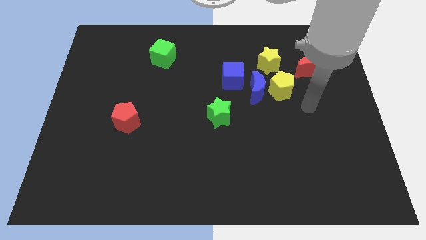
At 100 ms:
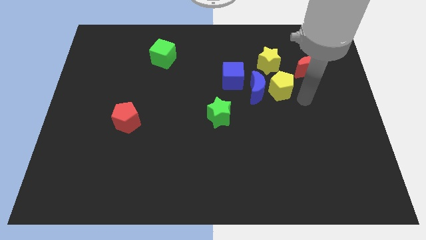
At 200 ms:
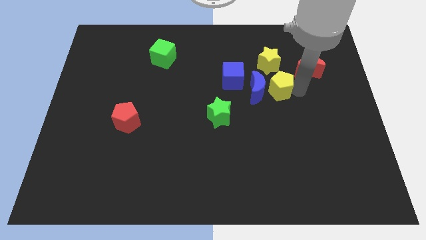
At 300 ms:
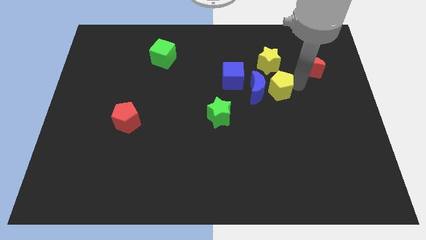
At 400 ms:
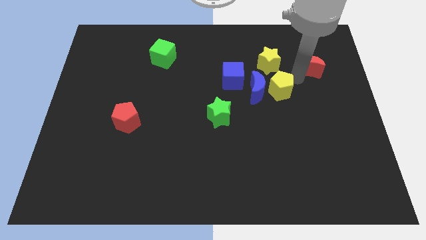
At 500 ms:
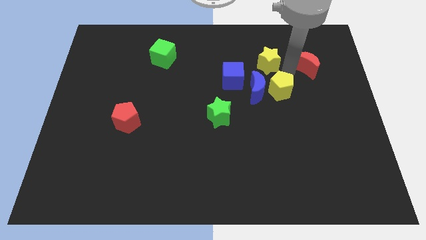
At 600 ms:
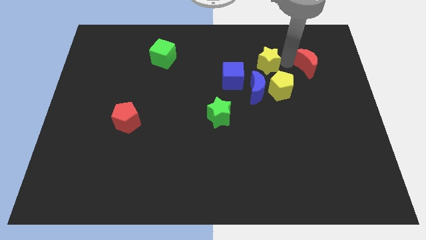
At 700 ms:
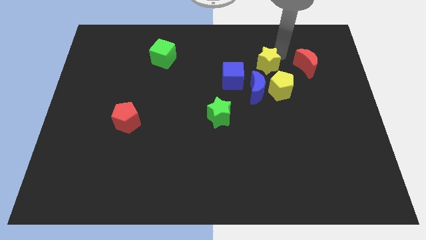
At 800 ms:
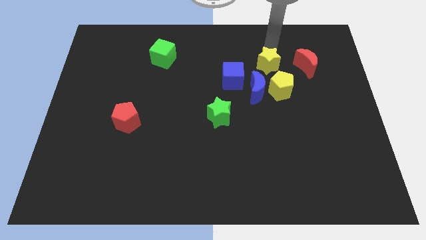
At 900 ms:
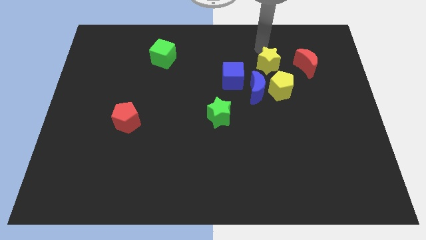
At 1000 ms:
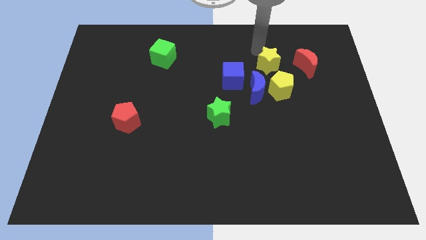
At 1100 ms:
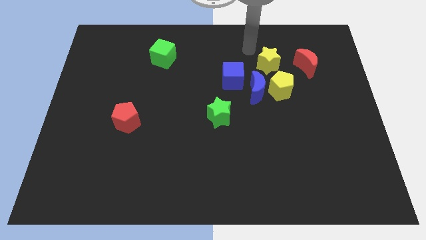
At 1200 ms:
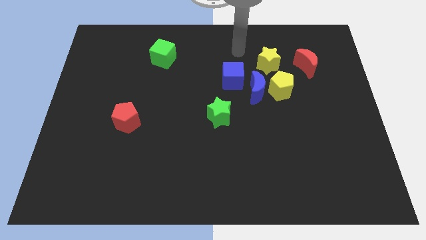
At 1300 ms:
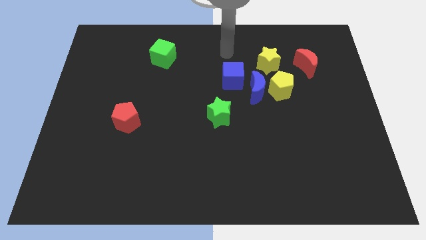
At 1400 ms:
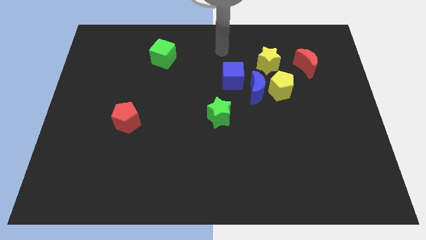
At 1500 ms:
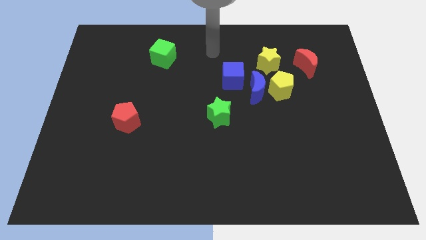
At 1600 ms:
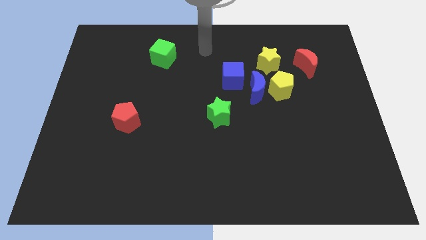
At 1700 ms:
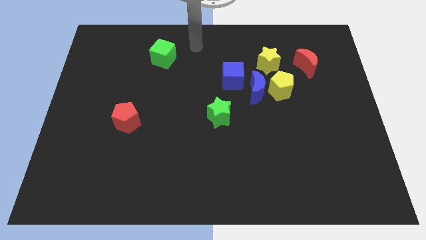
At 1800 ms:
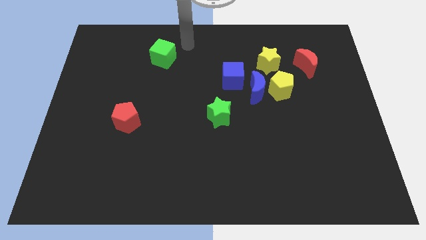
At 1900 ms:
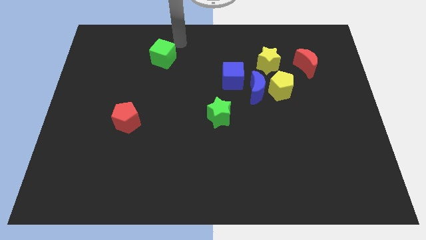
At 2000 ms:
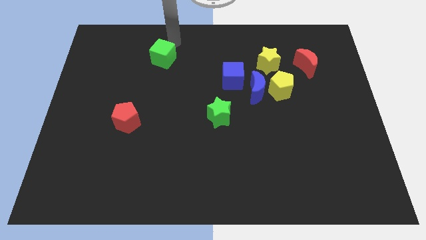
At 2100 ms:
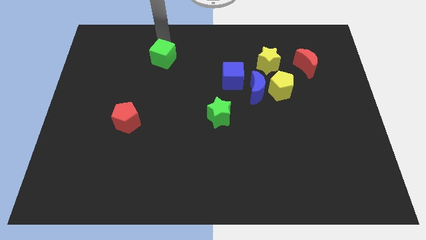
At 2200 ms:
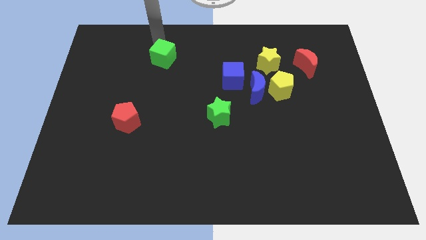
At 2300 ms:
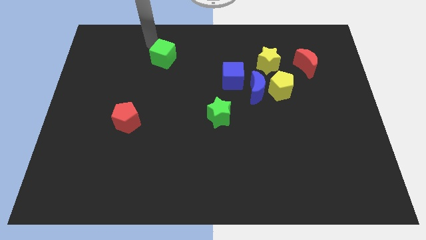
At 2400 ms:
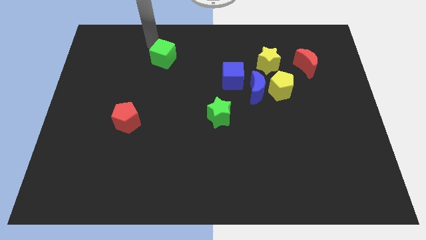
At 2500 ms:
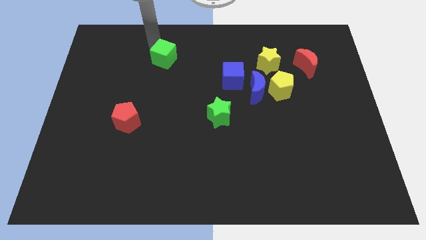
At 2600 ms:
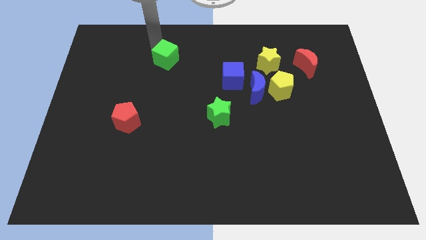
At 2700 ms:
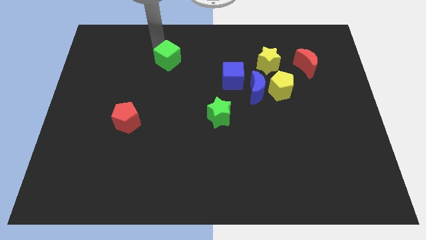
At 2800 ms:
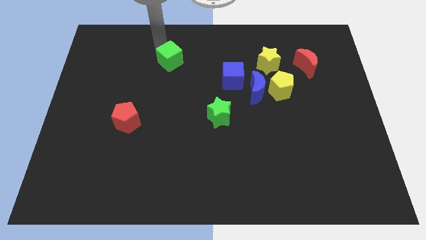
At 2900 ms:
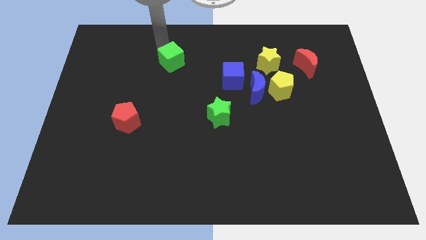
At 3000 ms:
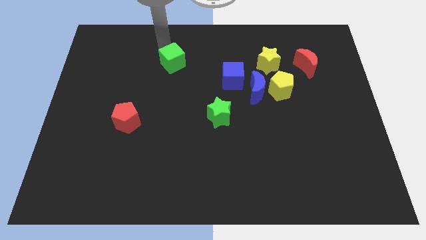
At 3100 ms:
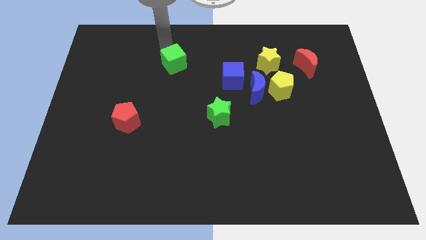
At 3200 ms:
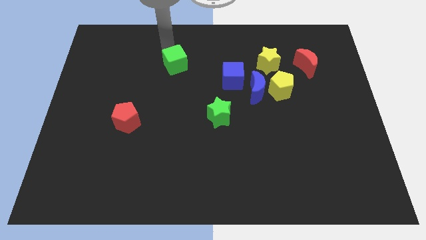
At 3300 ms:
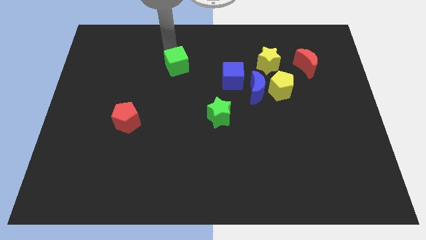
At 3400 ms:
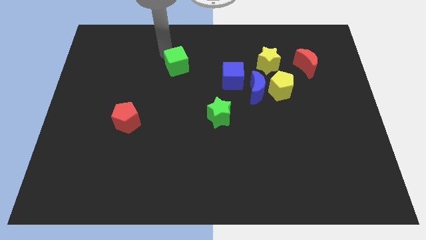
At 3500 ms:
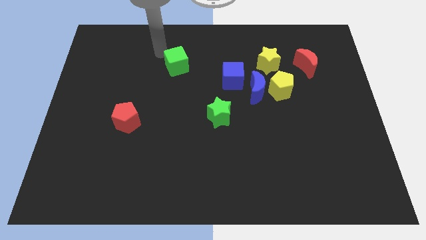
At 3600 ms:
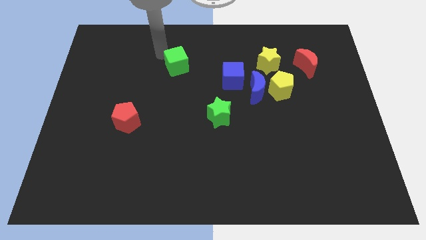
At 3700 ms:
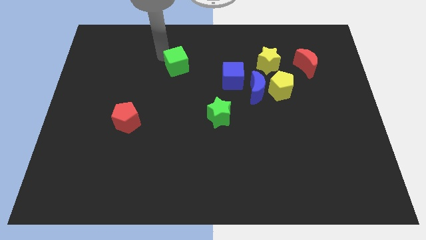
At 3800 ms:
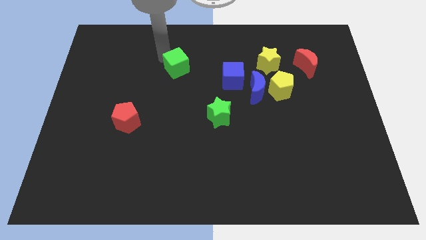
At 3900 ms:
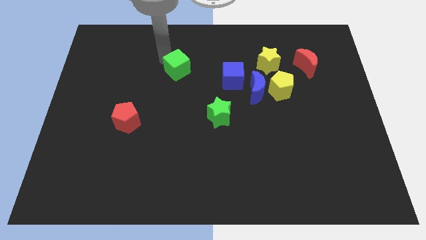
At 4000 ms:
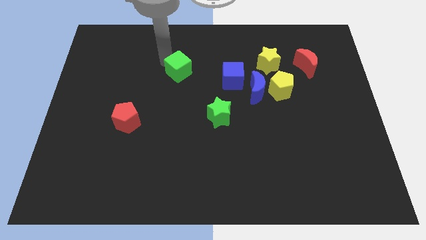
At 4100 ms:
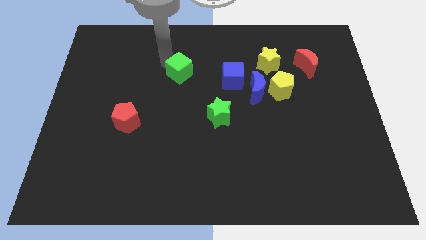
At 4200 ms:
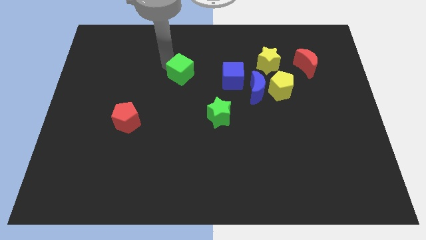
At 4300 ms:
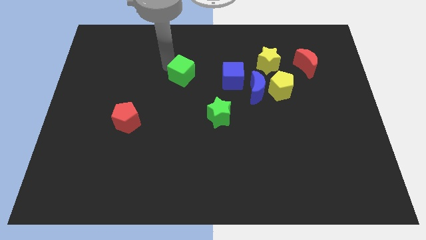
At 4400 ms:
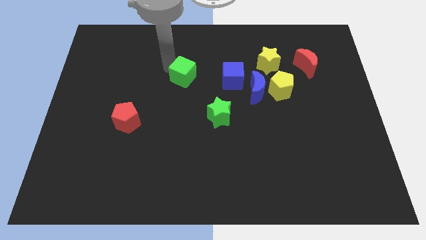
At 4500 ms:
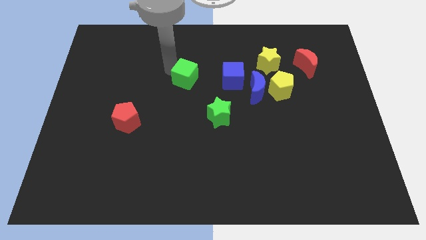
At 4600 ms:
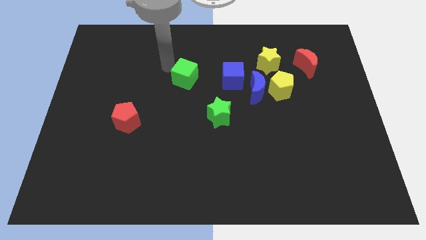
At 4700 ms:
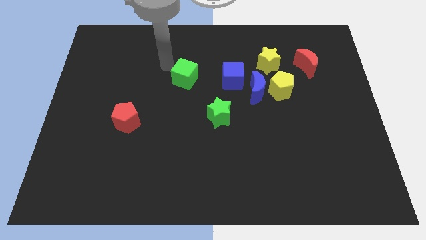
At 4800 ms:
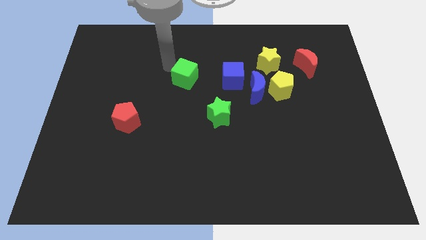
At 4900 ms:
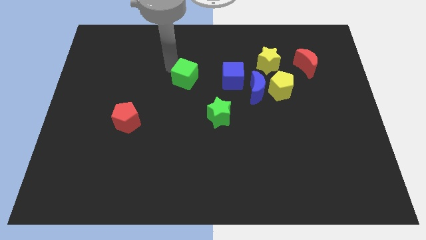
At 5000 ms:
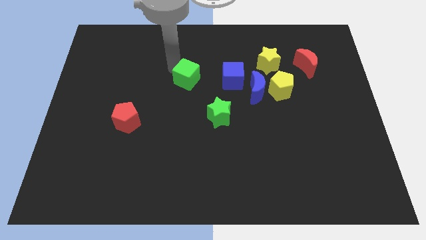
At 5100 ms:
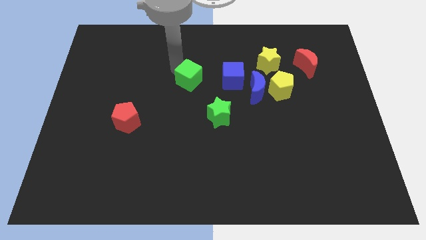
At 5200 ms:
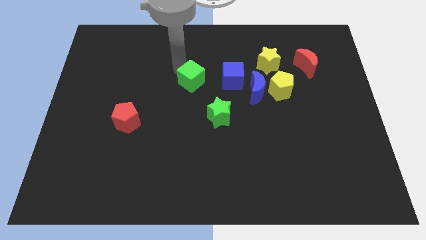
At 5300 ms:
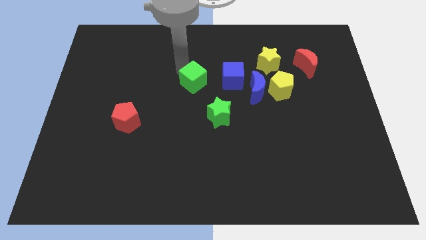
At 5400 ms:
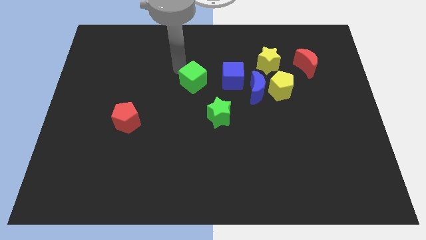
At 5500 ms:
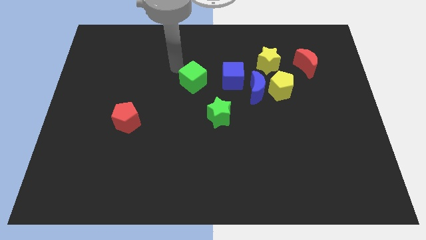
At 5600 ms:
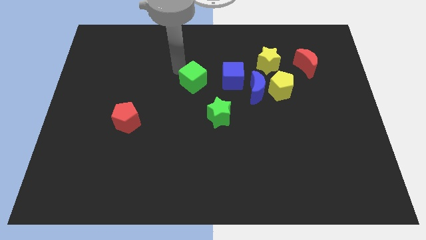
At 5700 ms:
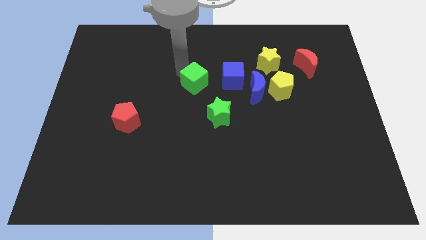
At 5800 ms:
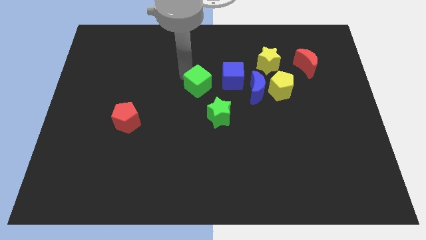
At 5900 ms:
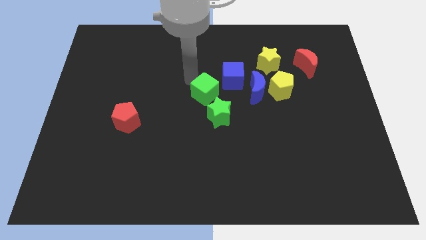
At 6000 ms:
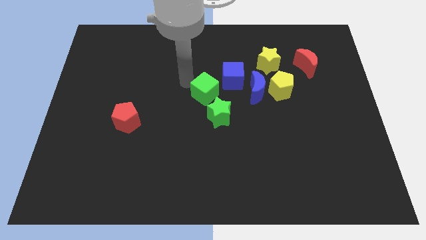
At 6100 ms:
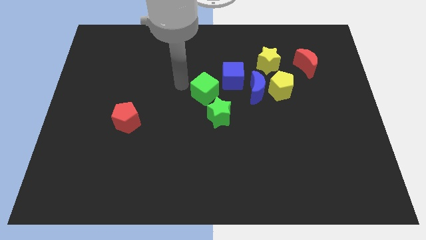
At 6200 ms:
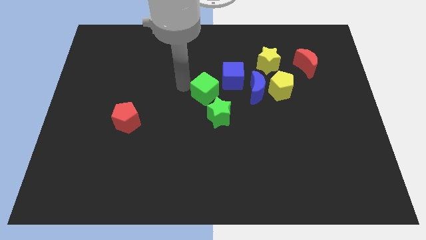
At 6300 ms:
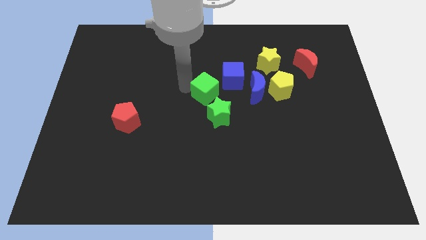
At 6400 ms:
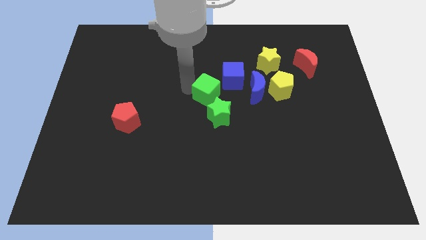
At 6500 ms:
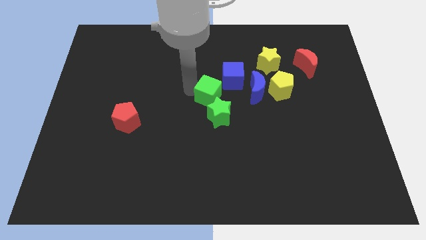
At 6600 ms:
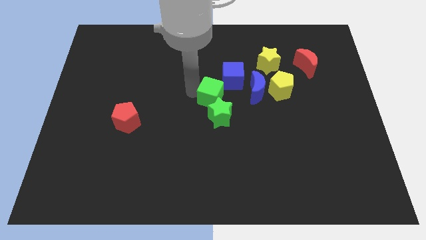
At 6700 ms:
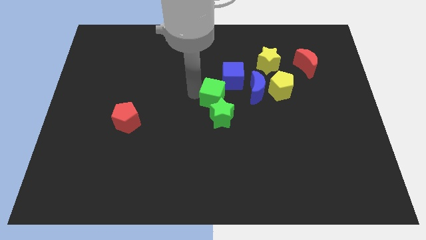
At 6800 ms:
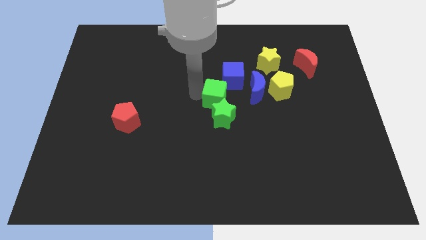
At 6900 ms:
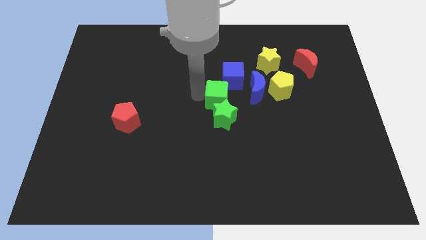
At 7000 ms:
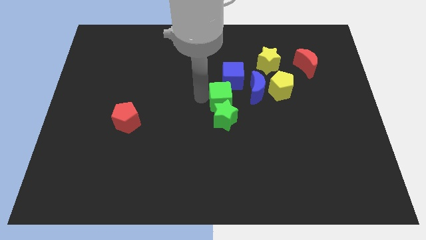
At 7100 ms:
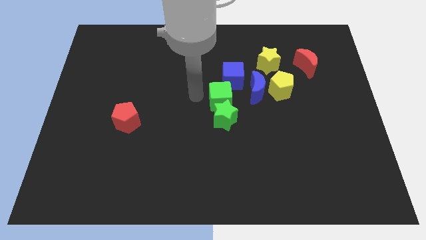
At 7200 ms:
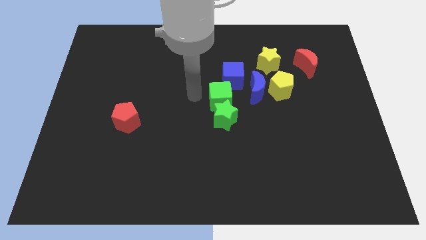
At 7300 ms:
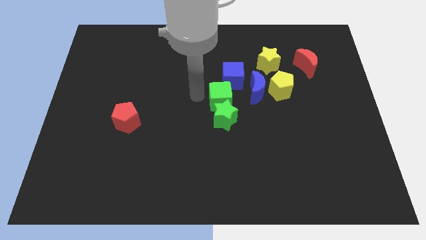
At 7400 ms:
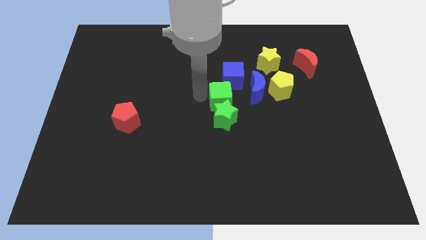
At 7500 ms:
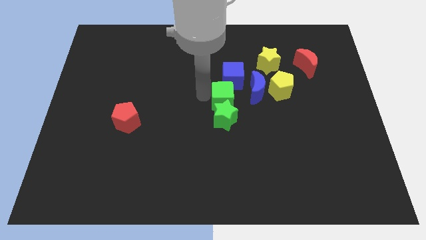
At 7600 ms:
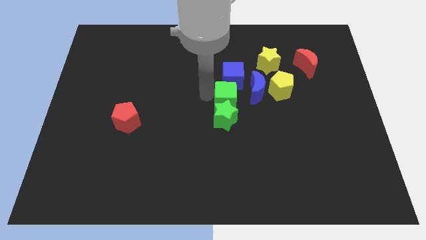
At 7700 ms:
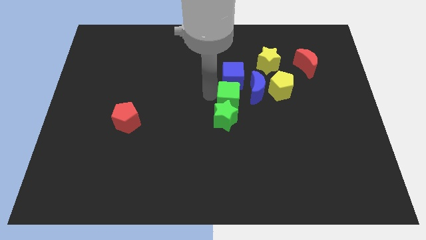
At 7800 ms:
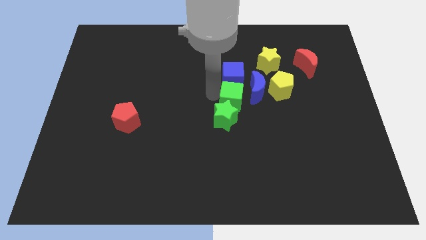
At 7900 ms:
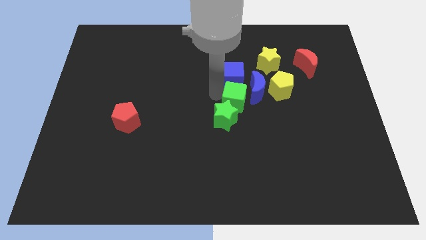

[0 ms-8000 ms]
push the green cube to the bottom right side of the blue cube
